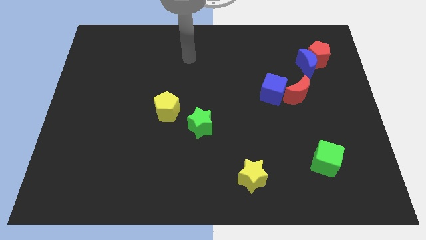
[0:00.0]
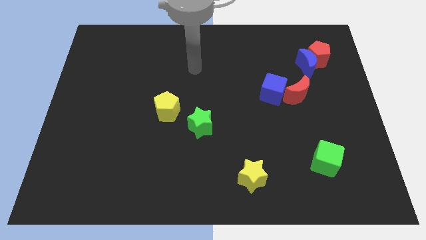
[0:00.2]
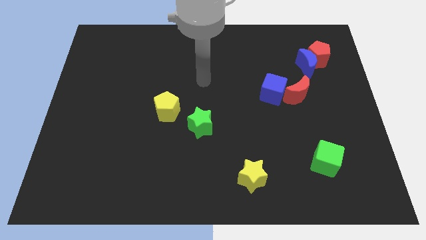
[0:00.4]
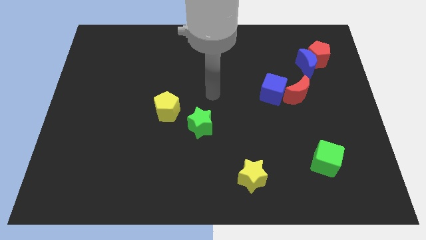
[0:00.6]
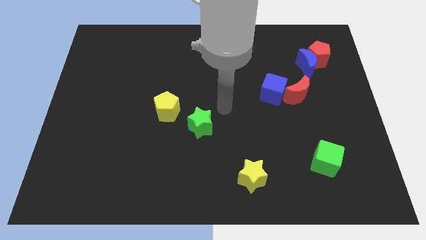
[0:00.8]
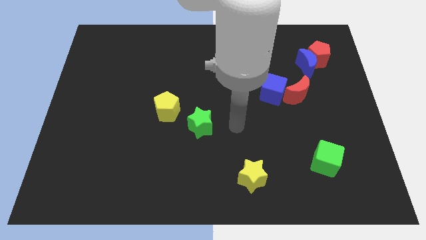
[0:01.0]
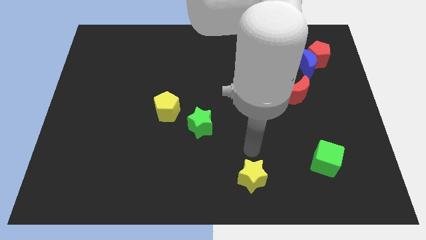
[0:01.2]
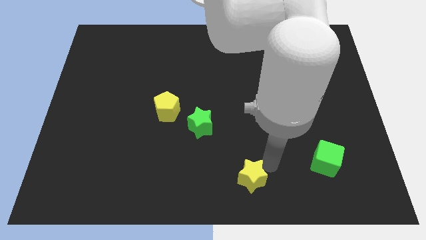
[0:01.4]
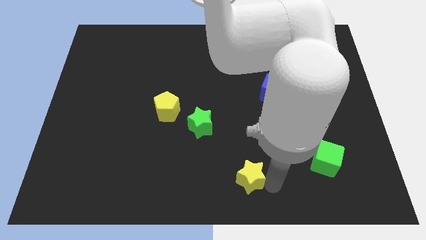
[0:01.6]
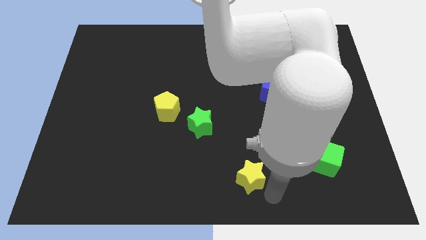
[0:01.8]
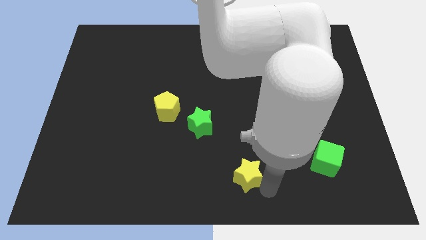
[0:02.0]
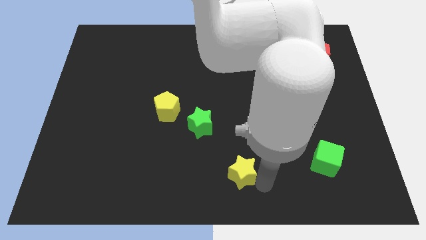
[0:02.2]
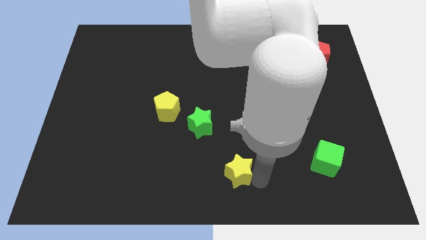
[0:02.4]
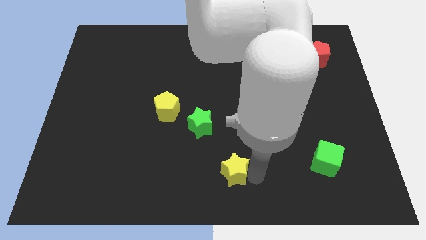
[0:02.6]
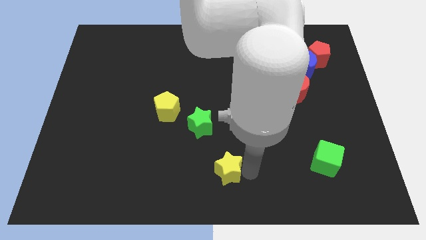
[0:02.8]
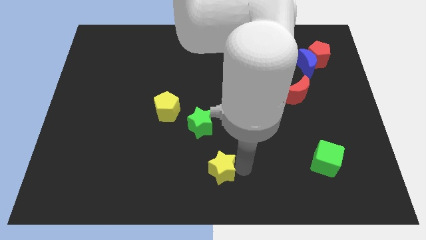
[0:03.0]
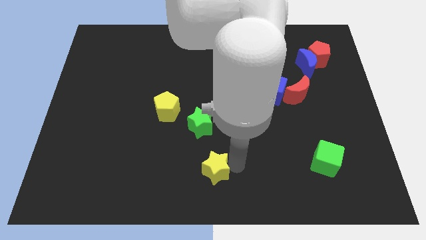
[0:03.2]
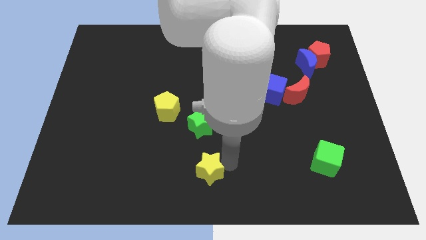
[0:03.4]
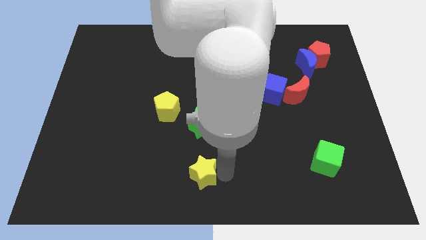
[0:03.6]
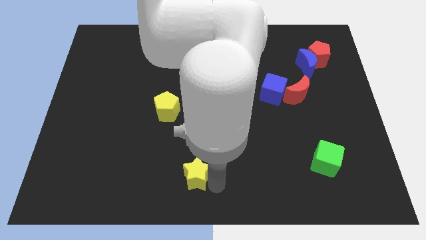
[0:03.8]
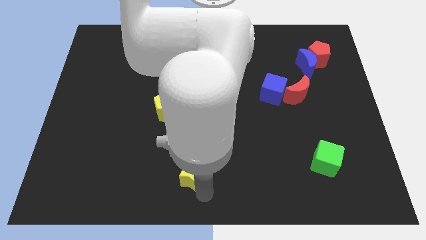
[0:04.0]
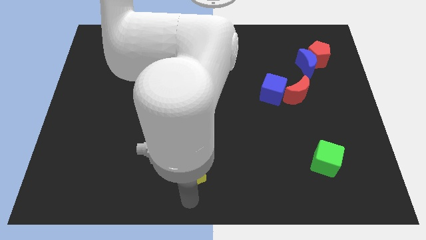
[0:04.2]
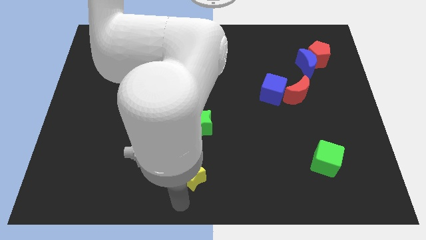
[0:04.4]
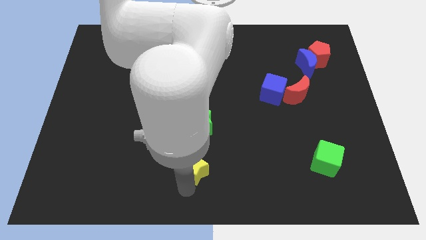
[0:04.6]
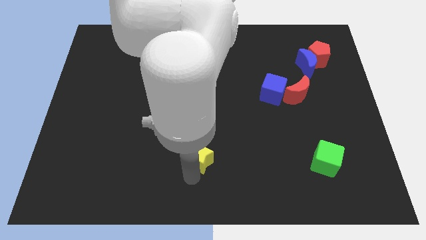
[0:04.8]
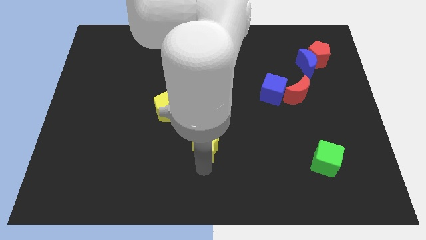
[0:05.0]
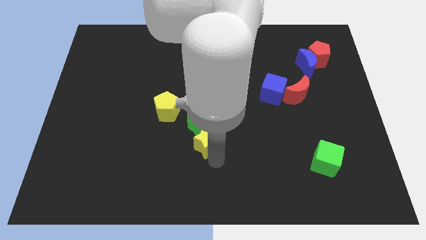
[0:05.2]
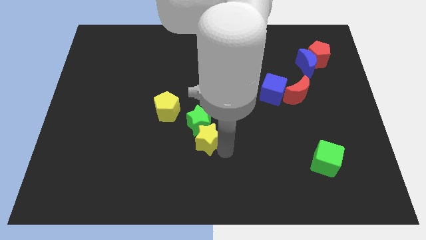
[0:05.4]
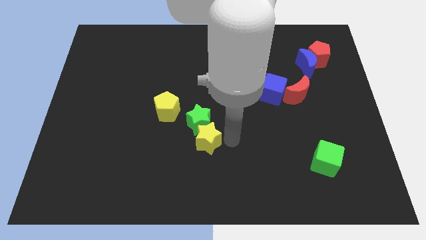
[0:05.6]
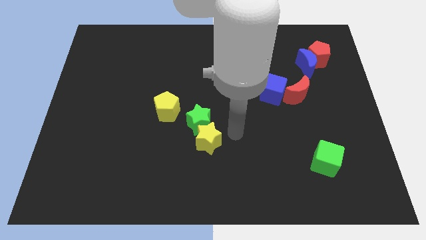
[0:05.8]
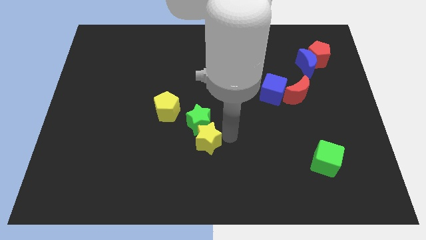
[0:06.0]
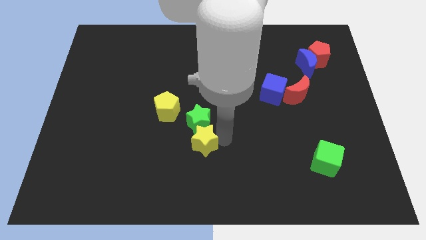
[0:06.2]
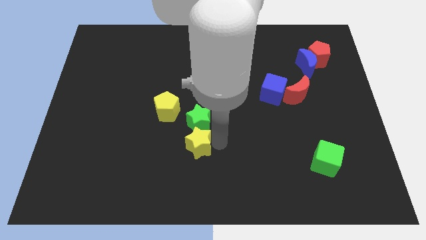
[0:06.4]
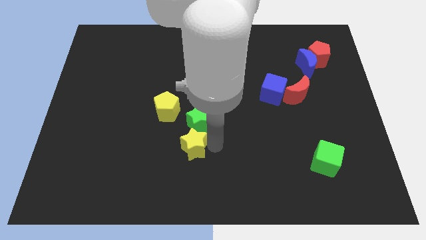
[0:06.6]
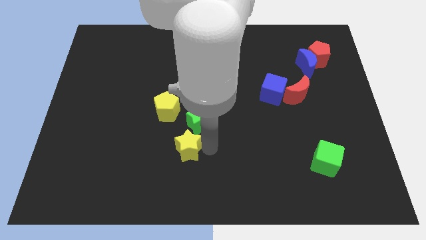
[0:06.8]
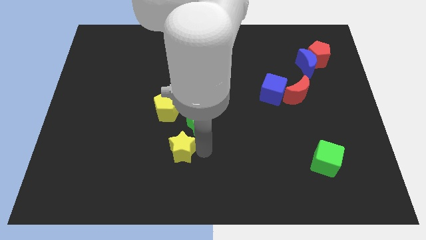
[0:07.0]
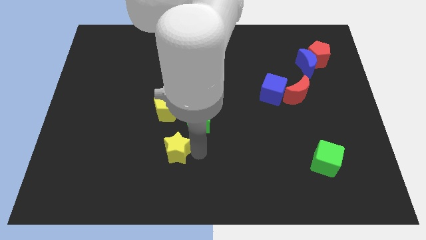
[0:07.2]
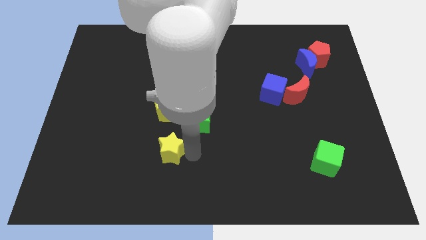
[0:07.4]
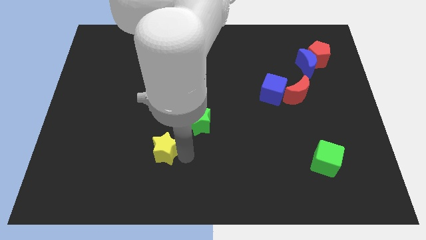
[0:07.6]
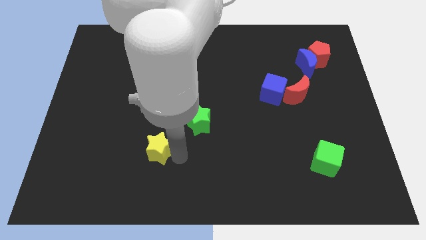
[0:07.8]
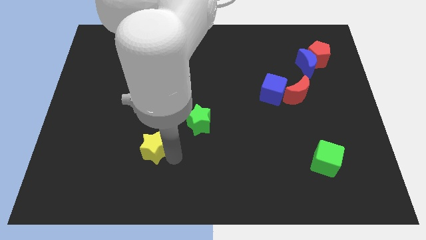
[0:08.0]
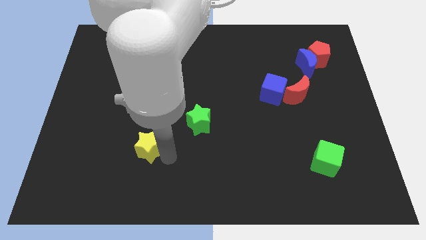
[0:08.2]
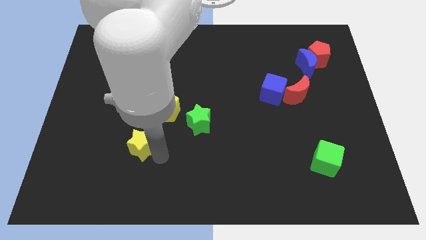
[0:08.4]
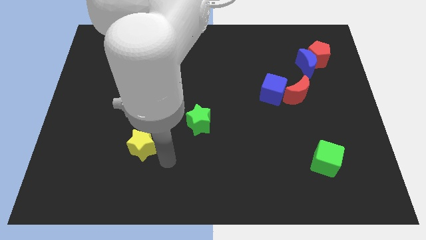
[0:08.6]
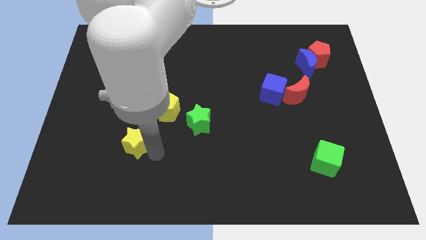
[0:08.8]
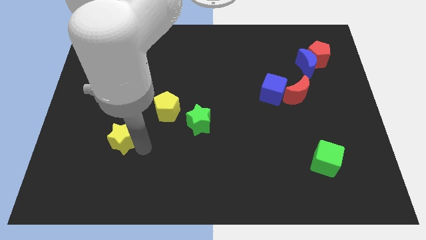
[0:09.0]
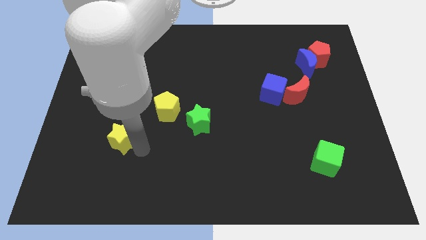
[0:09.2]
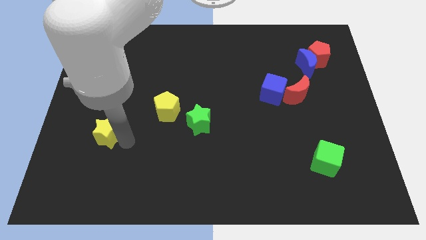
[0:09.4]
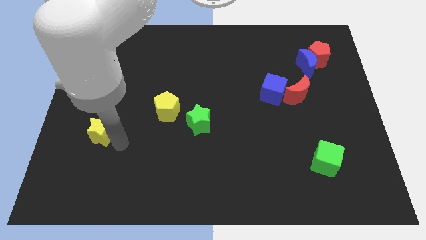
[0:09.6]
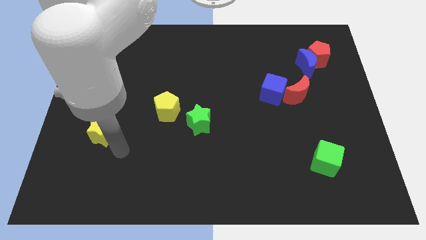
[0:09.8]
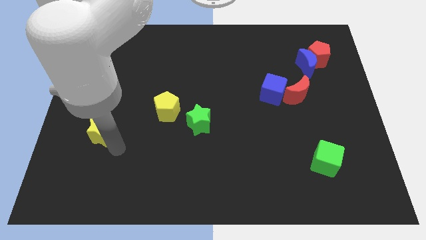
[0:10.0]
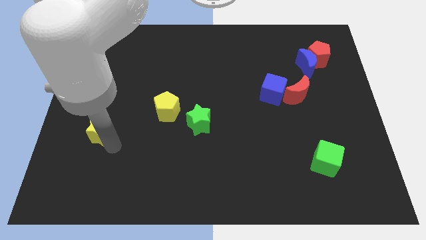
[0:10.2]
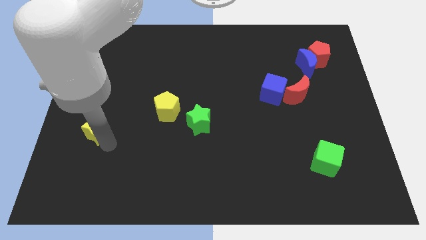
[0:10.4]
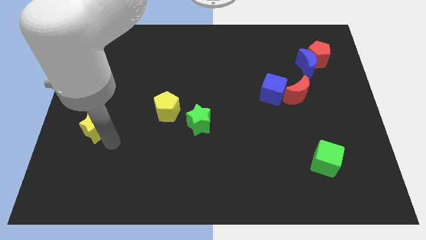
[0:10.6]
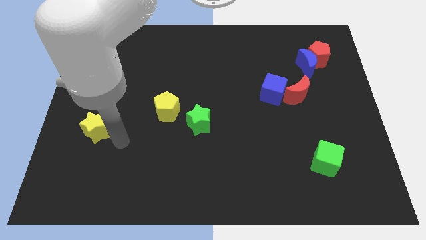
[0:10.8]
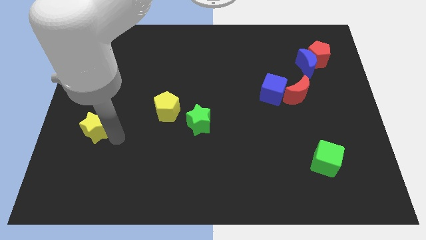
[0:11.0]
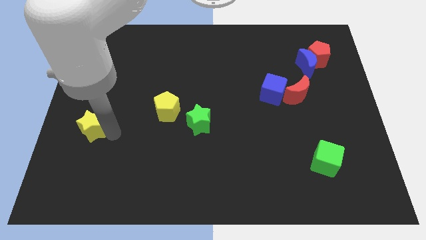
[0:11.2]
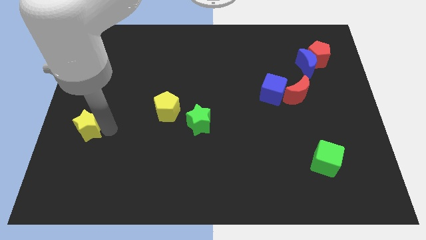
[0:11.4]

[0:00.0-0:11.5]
slide the yellow star to the left side
